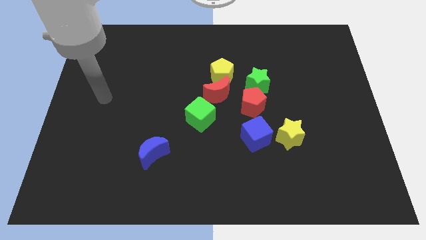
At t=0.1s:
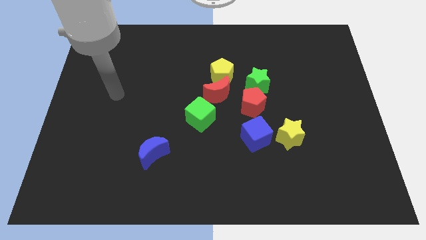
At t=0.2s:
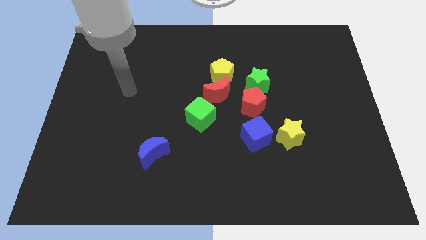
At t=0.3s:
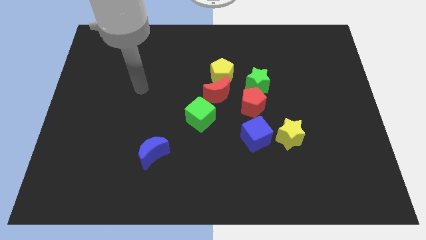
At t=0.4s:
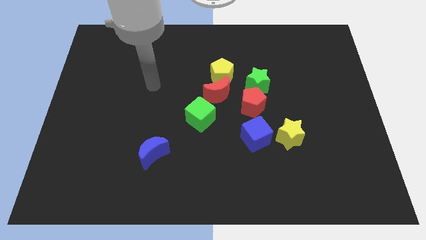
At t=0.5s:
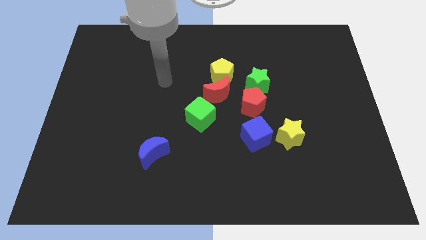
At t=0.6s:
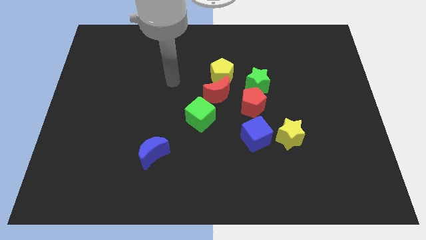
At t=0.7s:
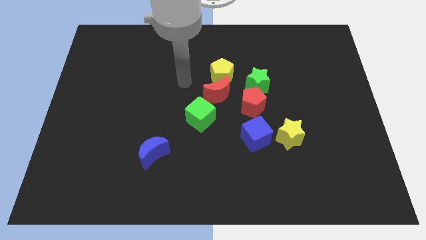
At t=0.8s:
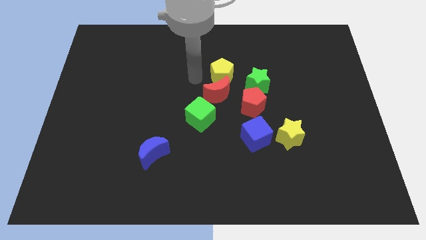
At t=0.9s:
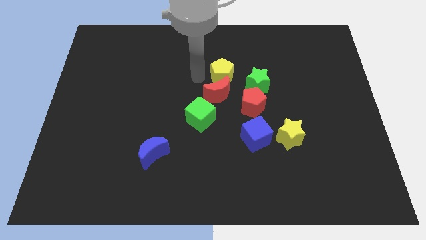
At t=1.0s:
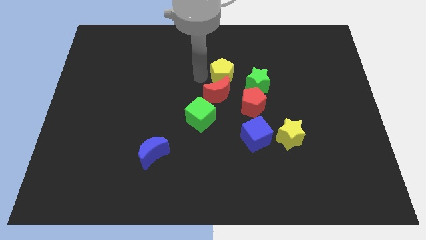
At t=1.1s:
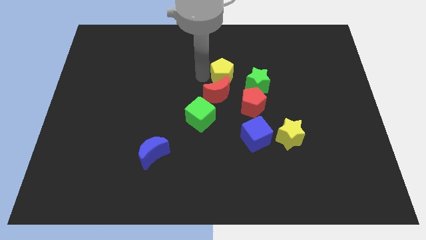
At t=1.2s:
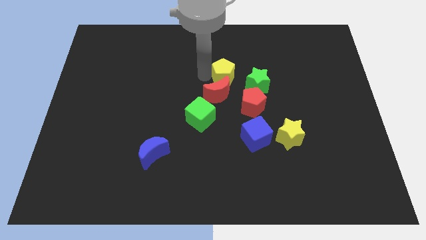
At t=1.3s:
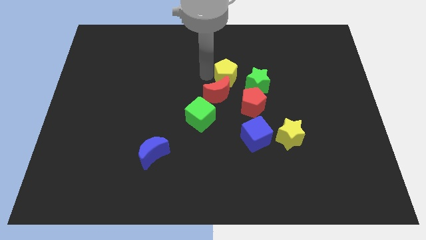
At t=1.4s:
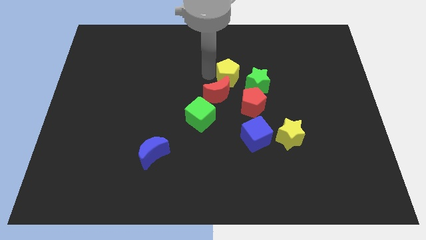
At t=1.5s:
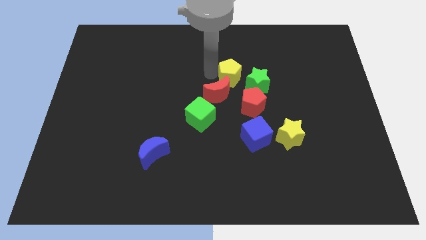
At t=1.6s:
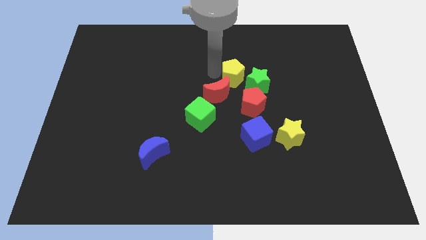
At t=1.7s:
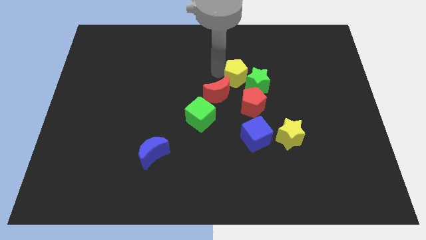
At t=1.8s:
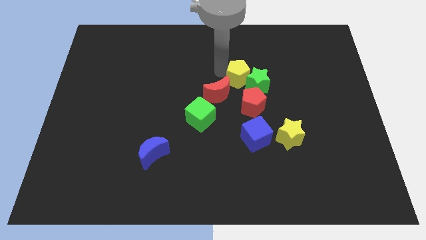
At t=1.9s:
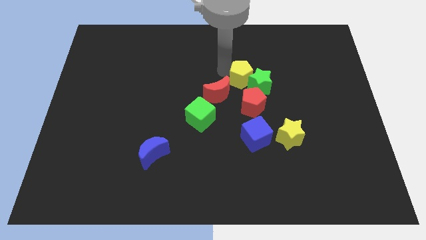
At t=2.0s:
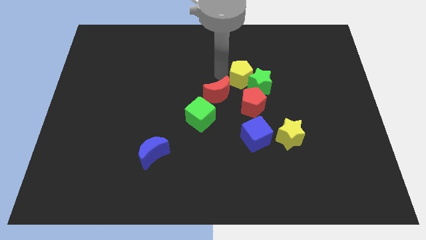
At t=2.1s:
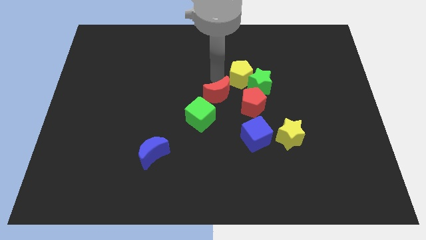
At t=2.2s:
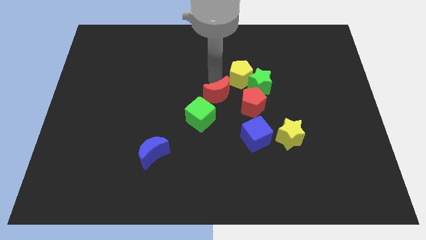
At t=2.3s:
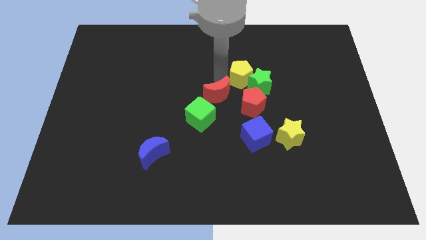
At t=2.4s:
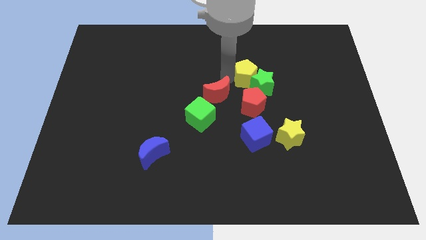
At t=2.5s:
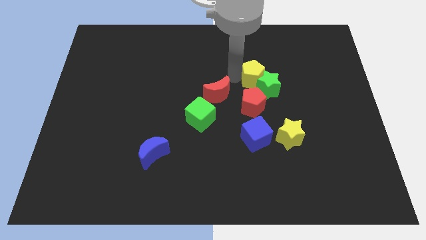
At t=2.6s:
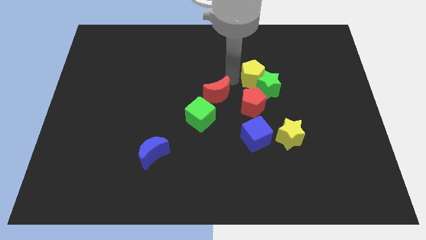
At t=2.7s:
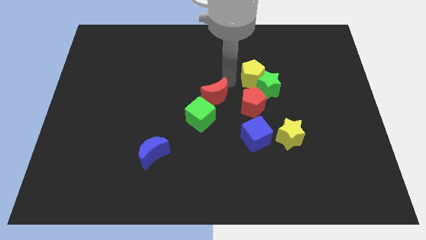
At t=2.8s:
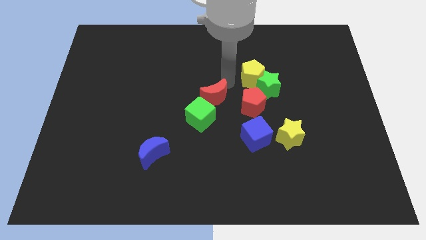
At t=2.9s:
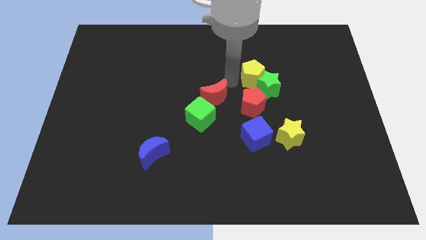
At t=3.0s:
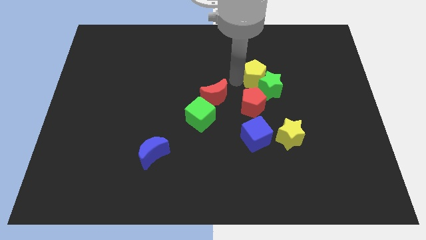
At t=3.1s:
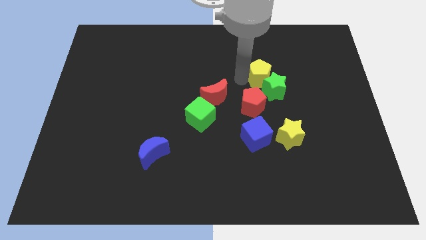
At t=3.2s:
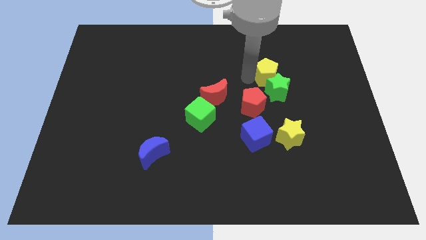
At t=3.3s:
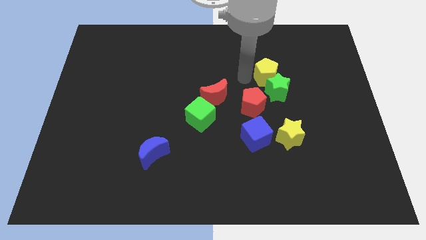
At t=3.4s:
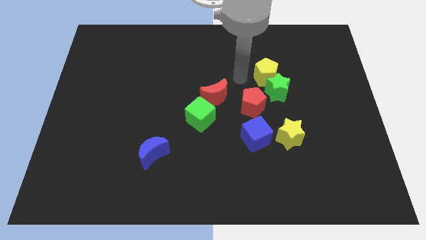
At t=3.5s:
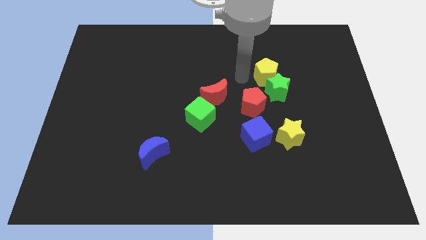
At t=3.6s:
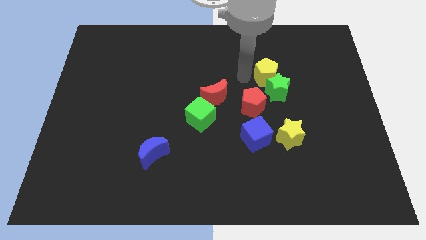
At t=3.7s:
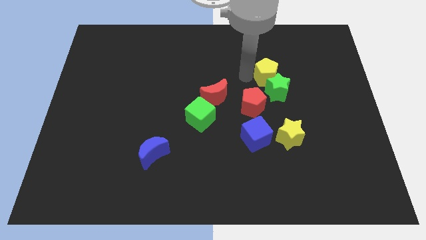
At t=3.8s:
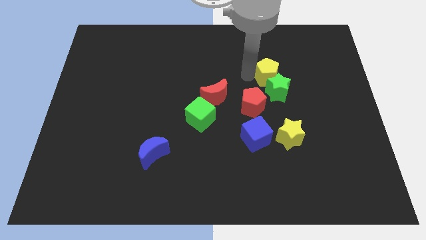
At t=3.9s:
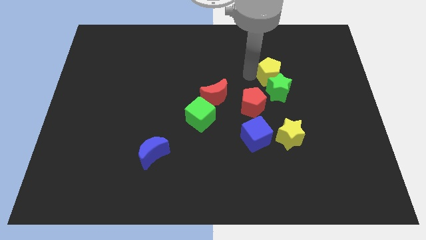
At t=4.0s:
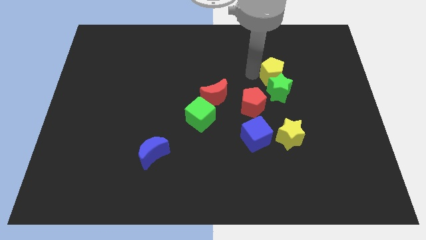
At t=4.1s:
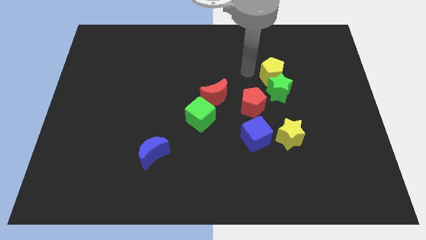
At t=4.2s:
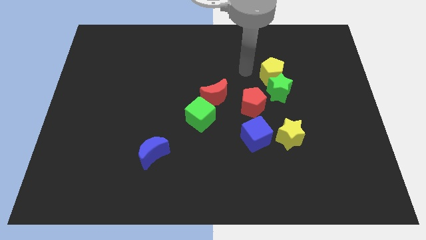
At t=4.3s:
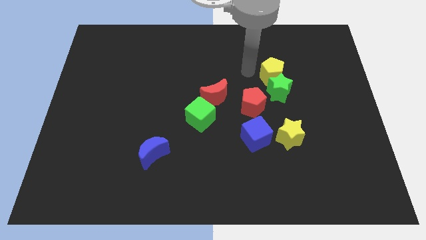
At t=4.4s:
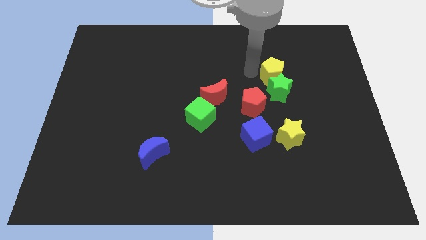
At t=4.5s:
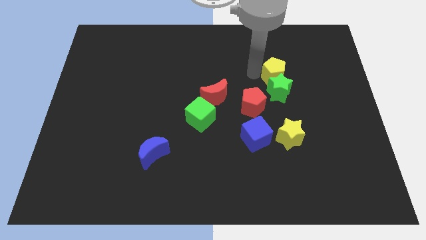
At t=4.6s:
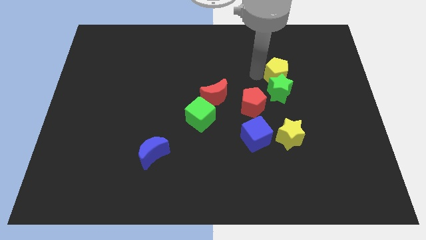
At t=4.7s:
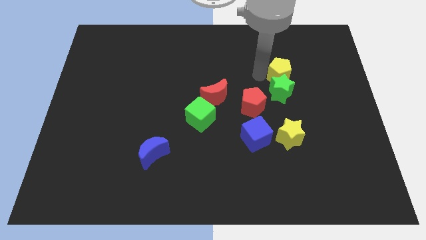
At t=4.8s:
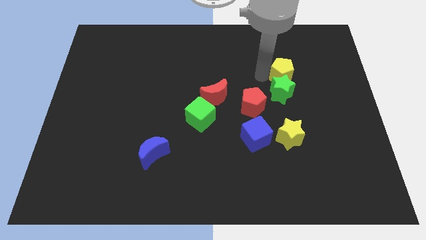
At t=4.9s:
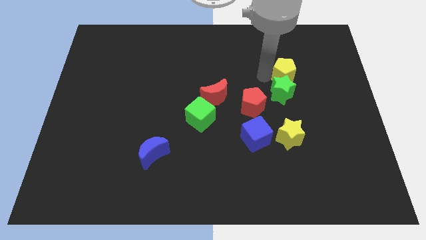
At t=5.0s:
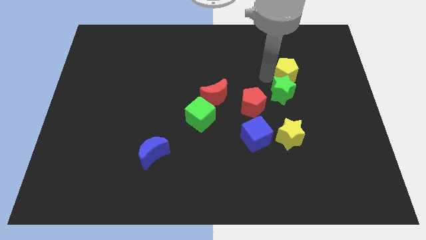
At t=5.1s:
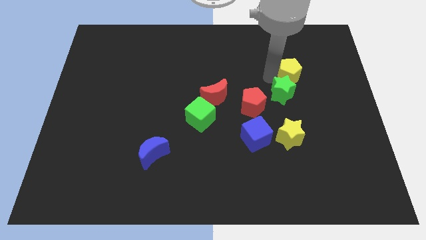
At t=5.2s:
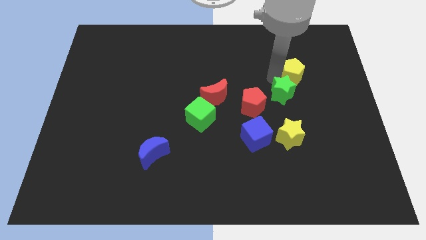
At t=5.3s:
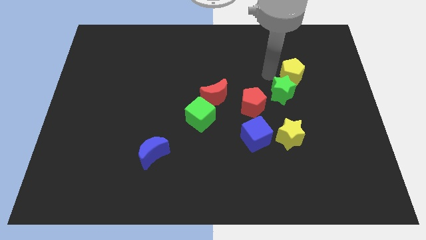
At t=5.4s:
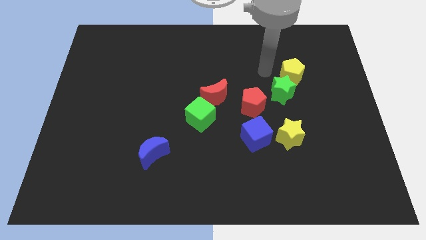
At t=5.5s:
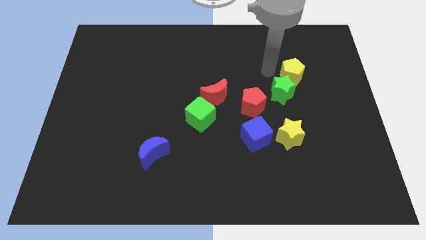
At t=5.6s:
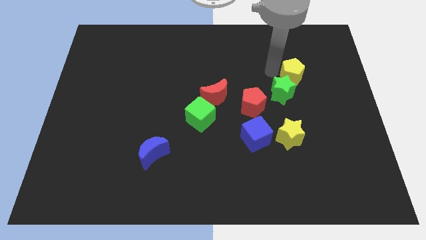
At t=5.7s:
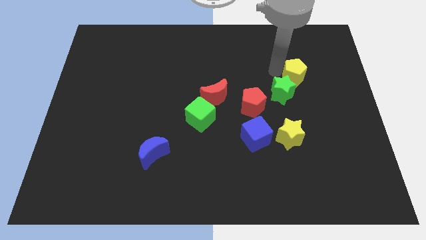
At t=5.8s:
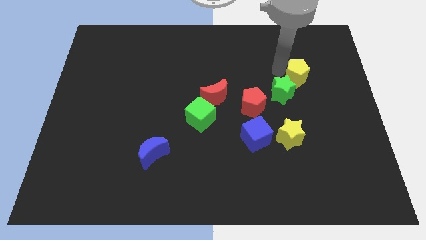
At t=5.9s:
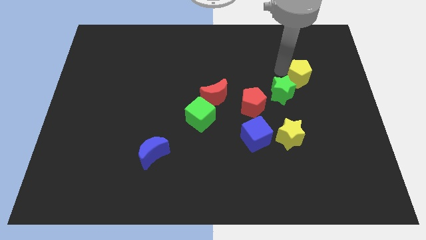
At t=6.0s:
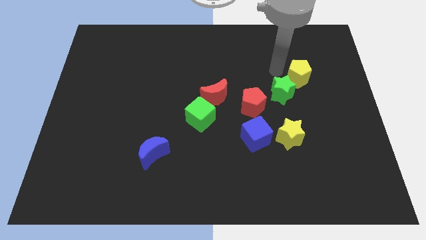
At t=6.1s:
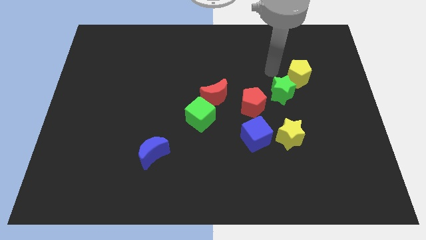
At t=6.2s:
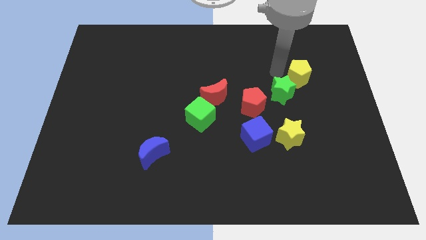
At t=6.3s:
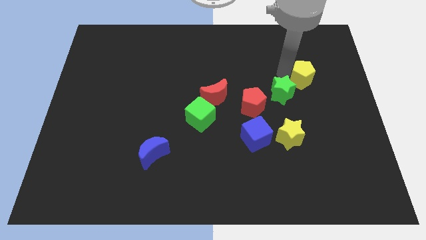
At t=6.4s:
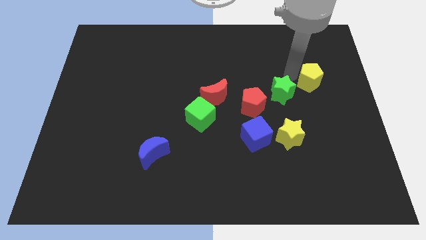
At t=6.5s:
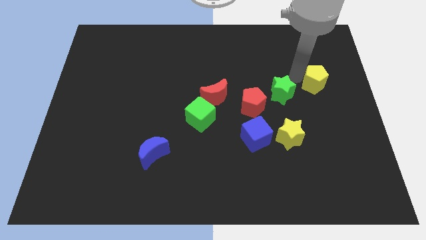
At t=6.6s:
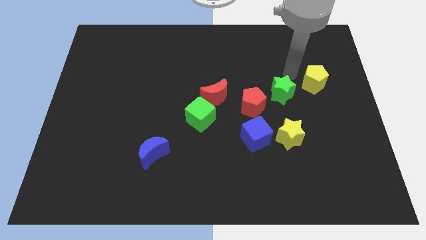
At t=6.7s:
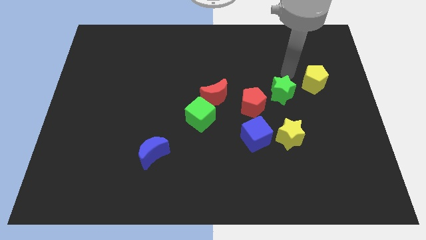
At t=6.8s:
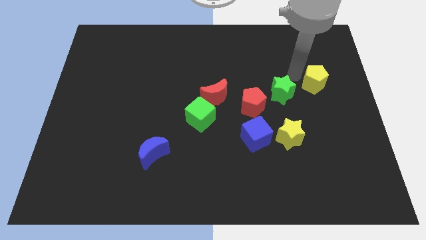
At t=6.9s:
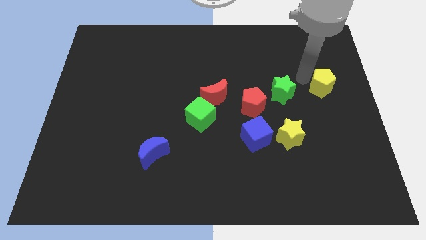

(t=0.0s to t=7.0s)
push the yellow pentagon to the right side
